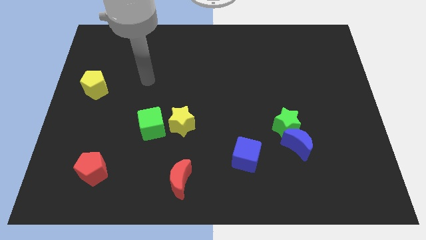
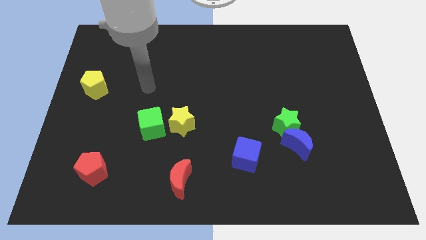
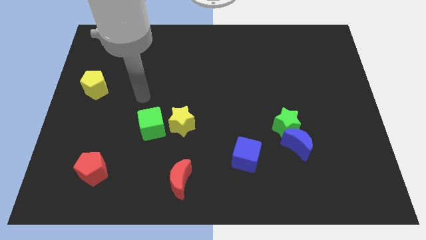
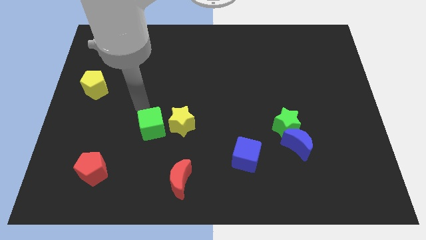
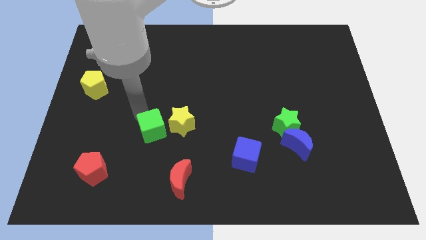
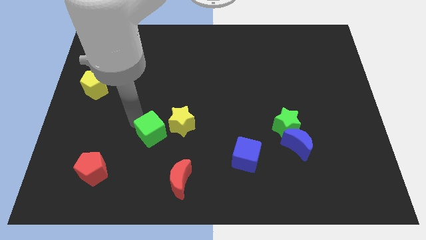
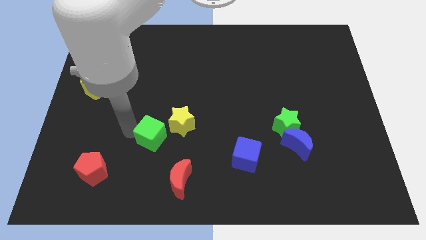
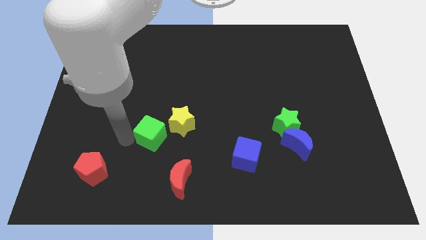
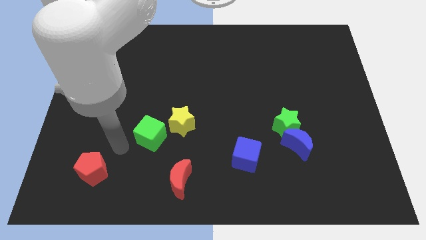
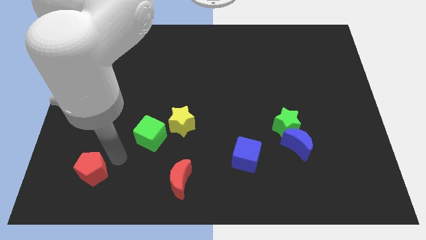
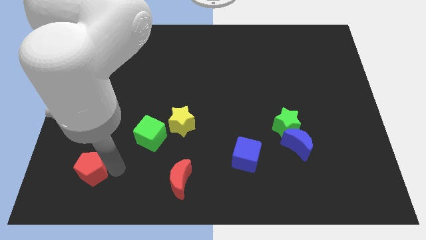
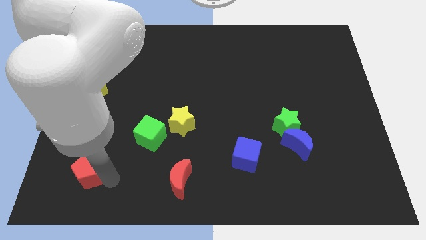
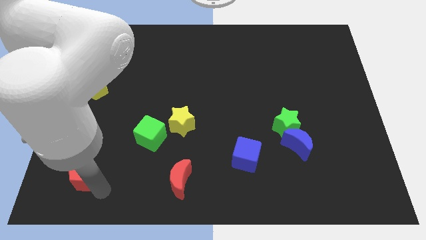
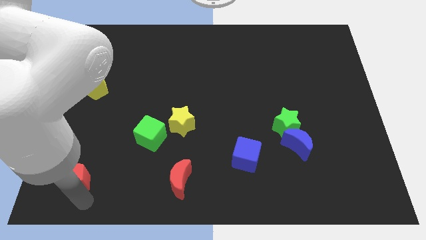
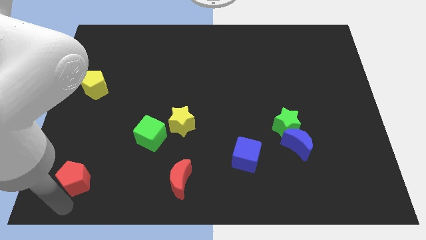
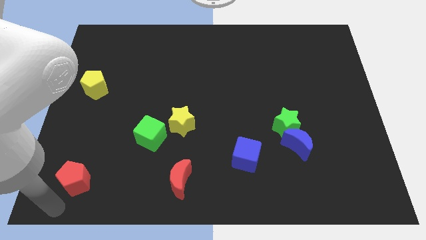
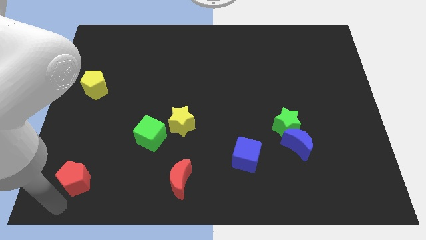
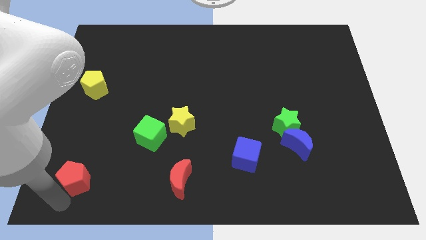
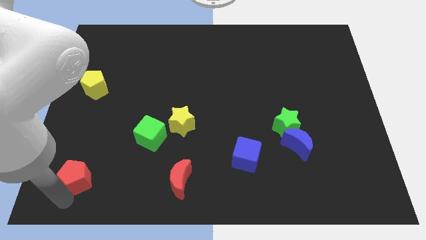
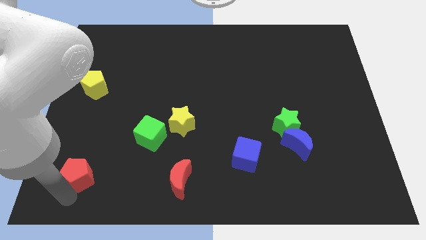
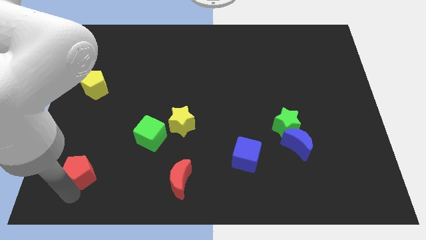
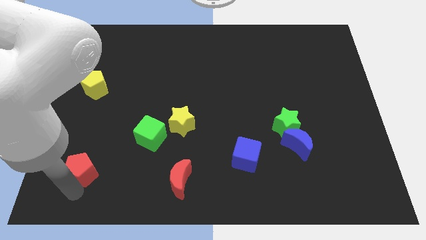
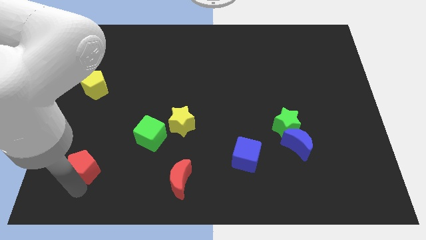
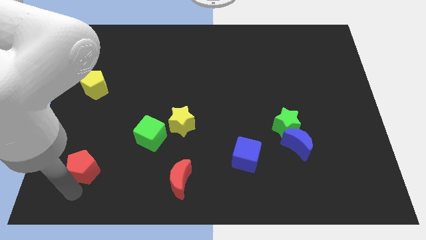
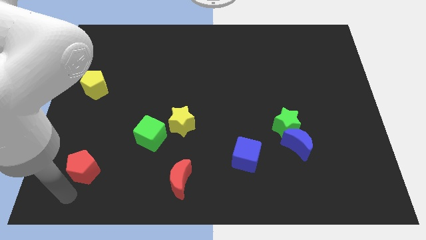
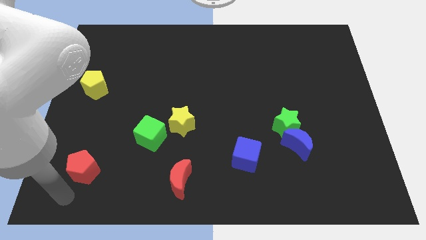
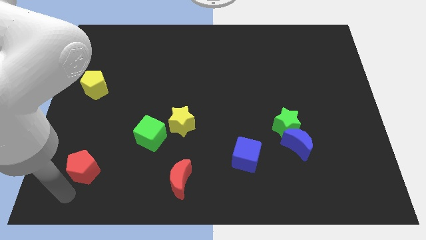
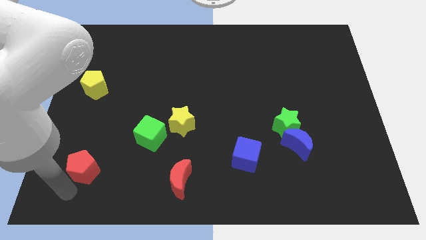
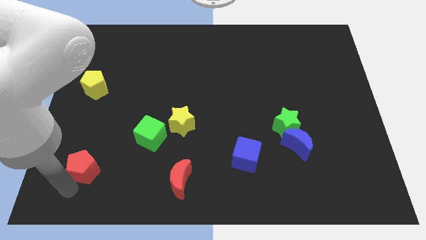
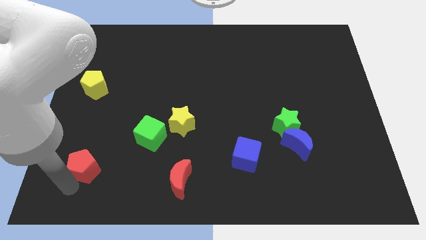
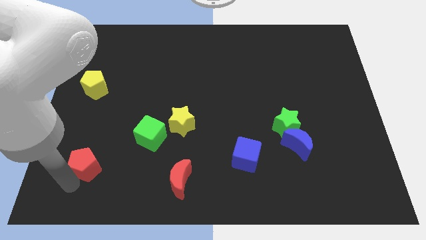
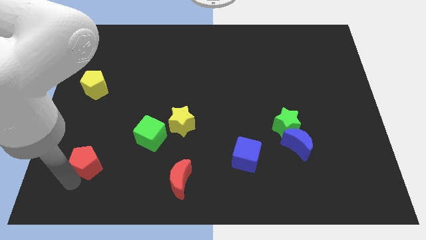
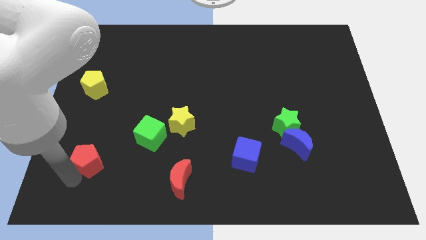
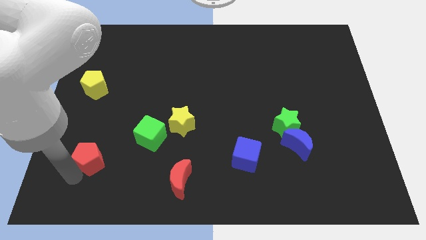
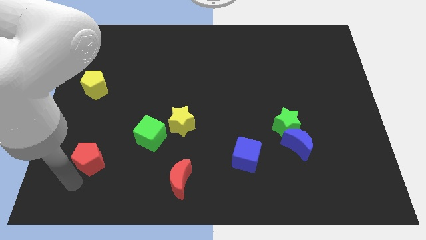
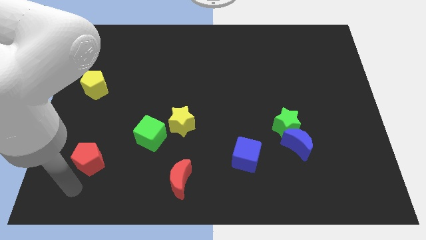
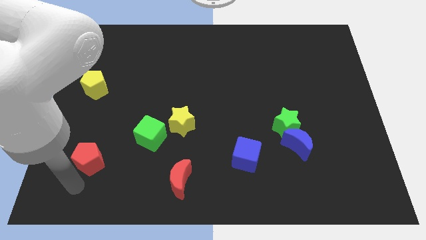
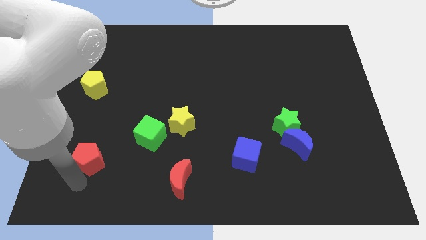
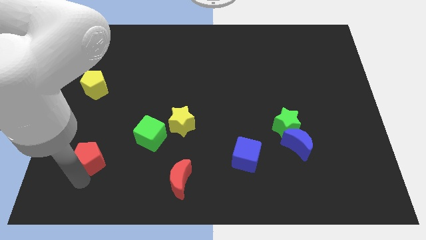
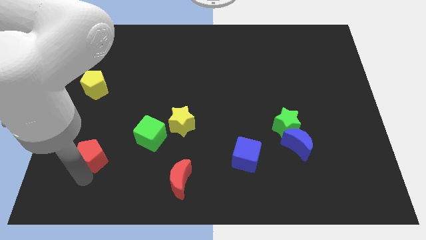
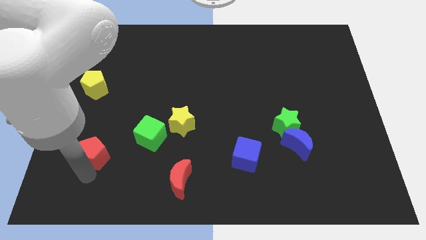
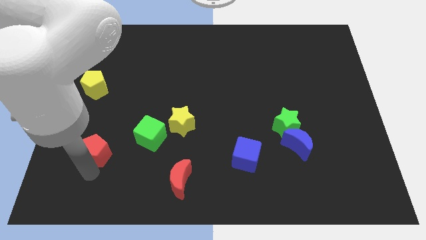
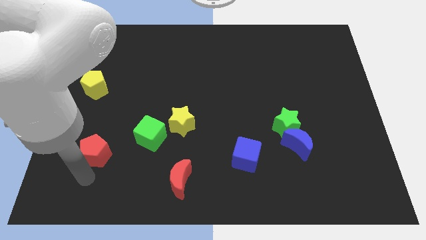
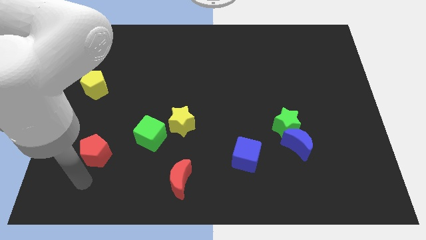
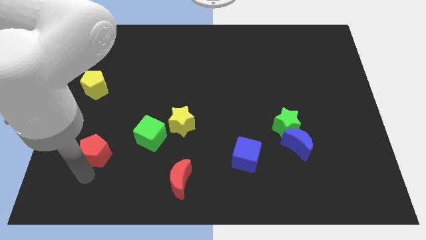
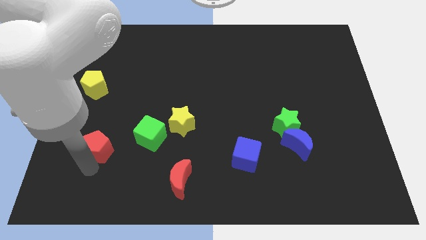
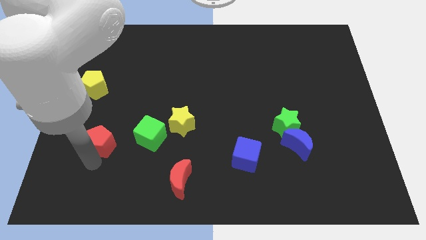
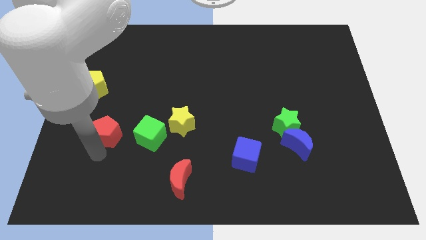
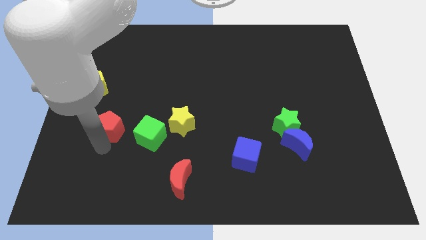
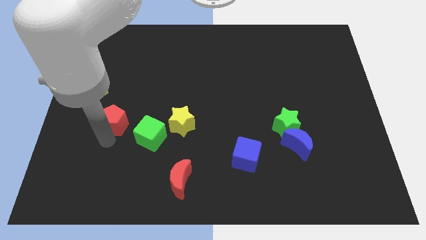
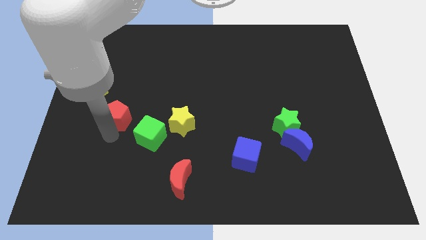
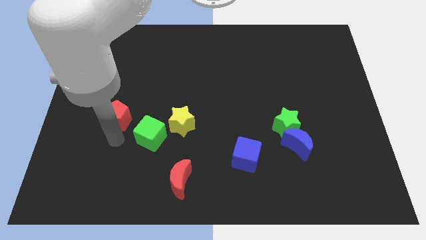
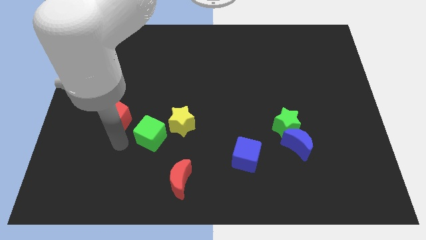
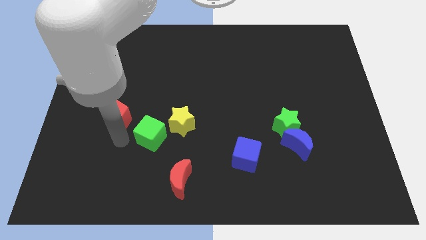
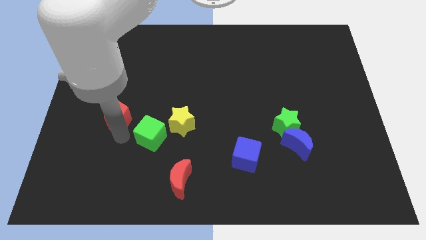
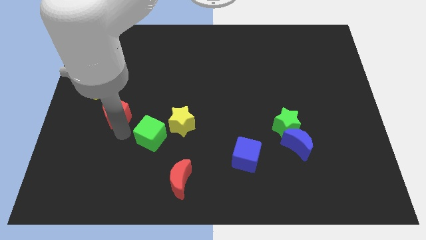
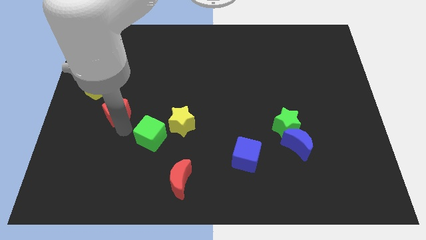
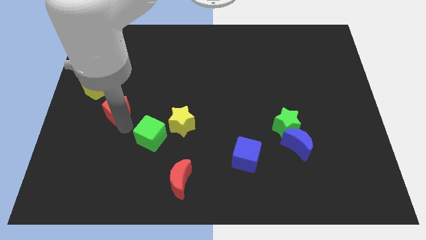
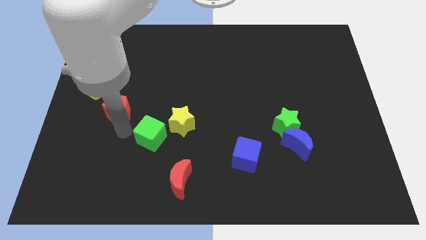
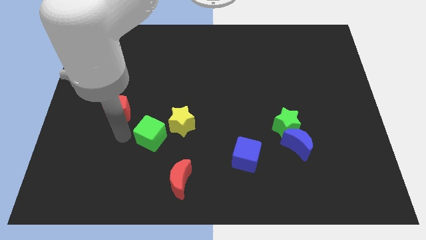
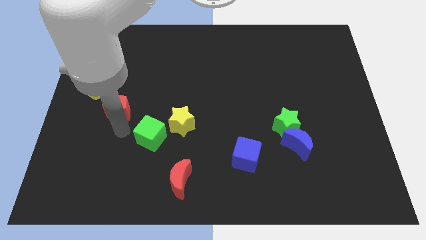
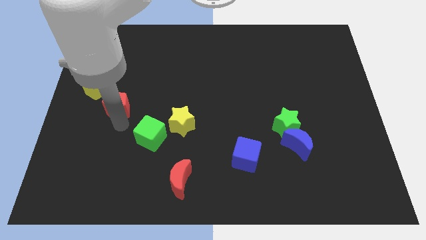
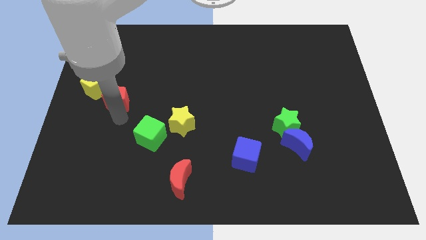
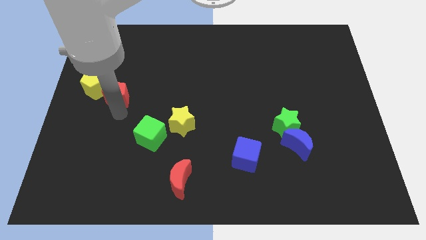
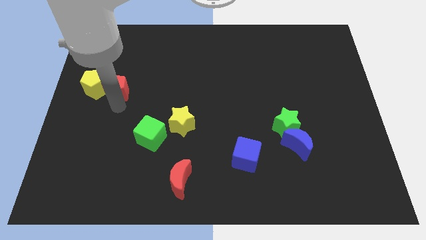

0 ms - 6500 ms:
slide the red pentagon up

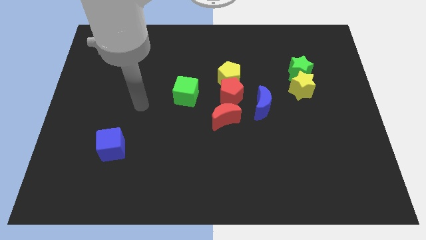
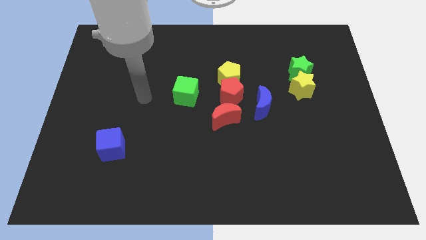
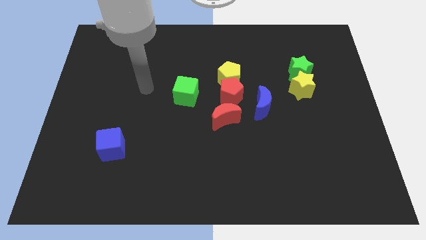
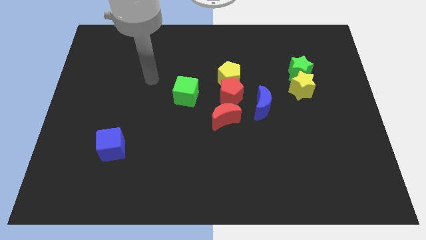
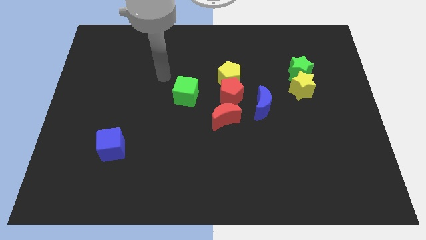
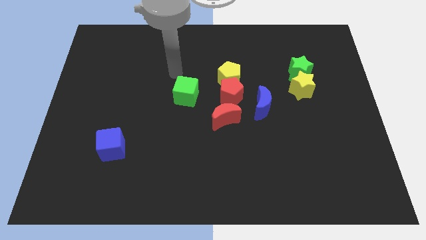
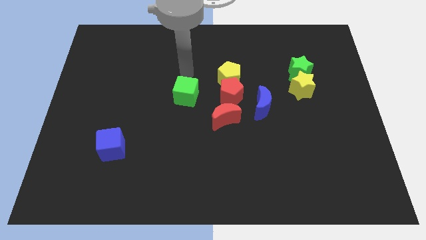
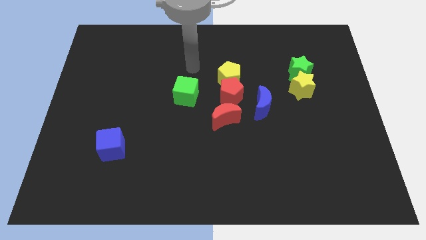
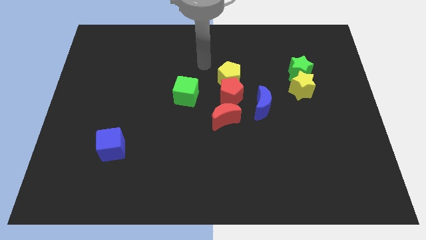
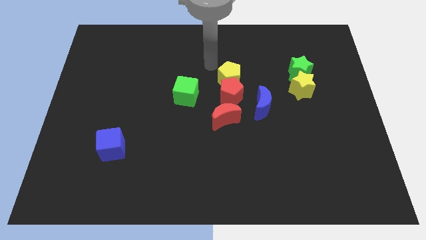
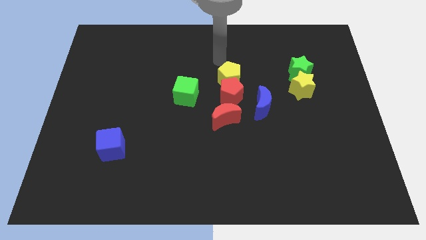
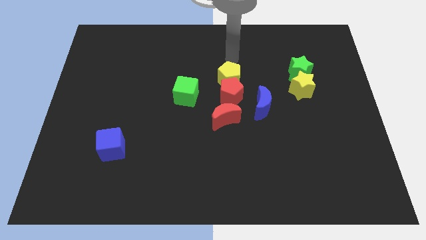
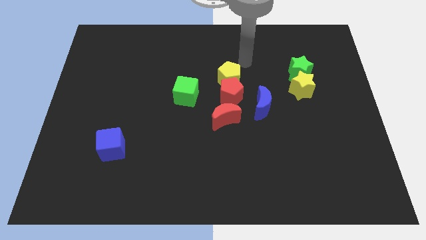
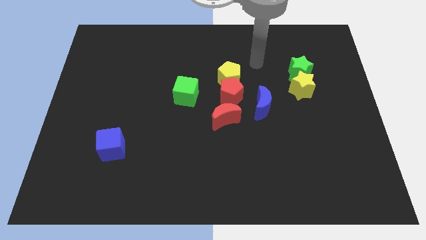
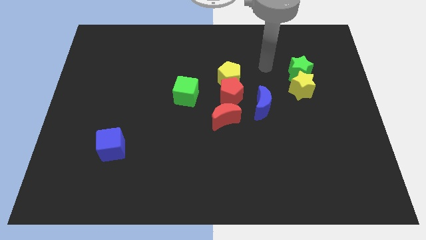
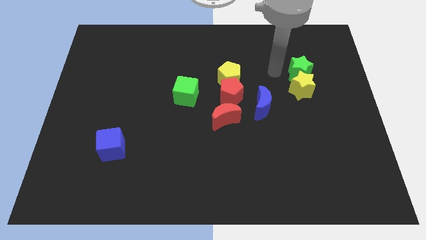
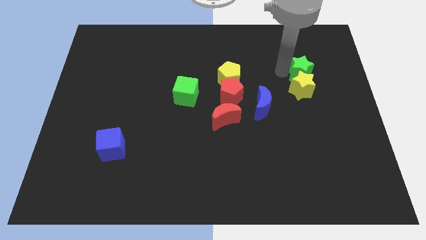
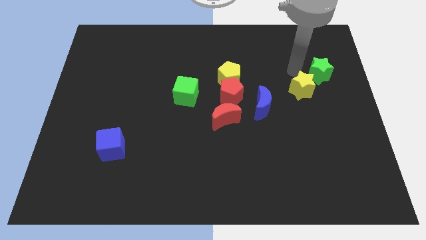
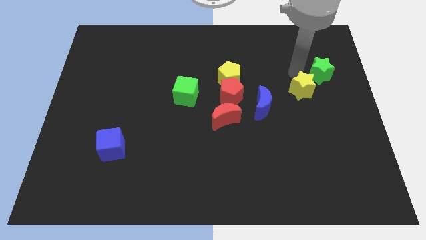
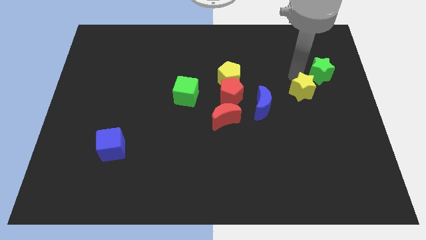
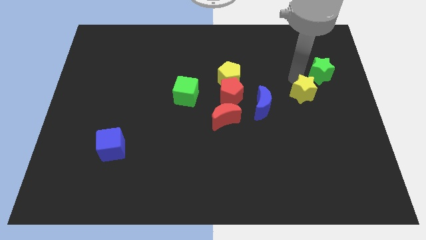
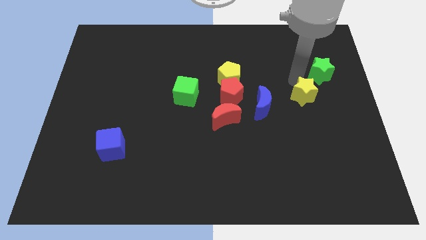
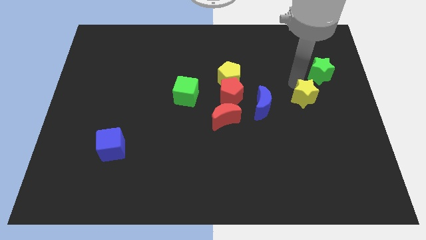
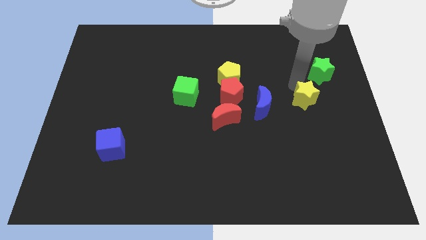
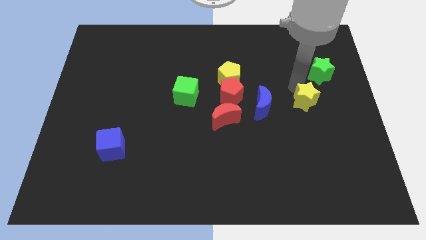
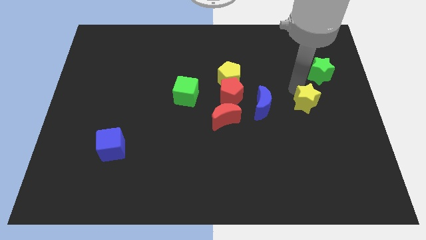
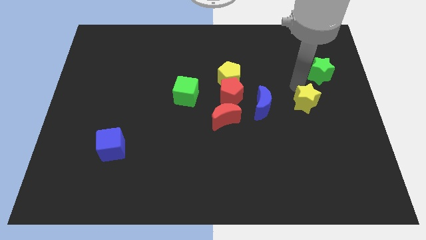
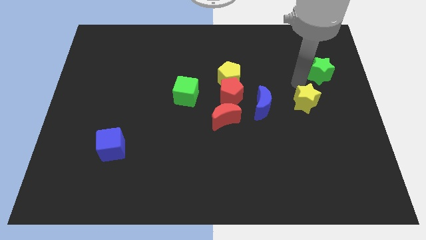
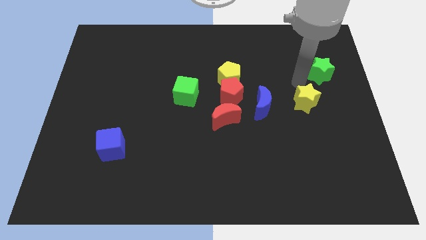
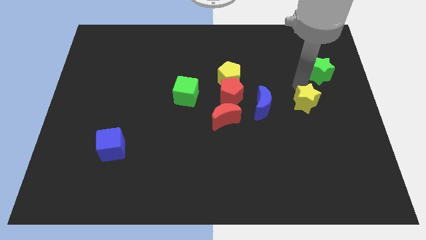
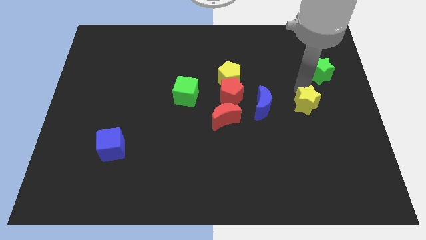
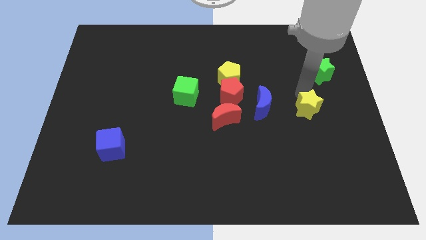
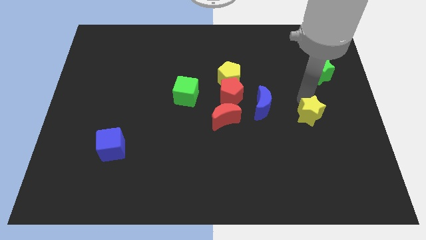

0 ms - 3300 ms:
slide the yellow star a little bit down
